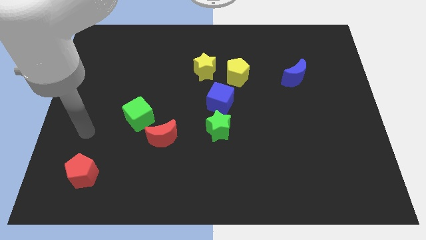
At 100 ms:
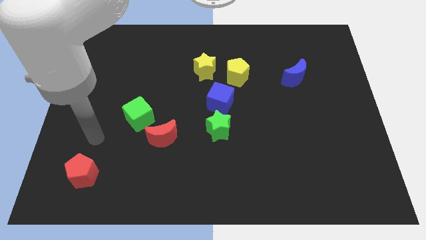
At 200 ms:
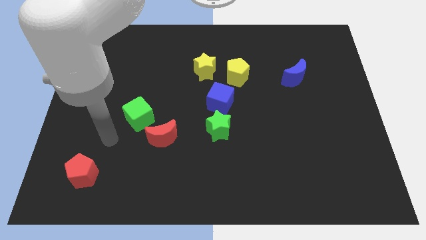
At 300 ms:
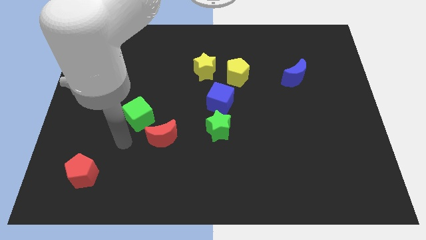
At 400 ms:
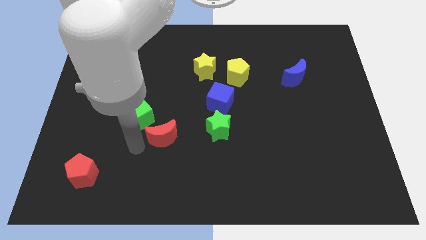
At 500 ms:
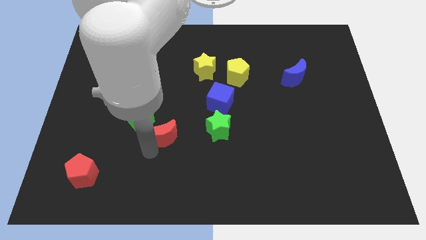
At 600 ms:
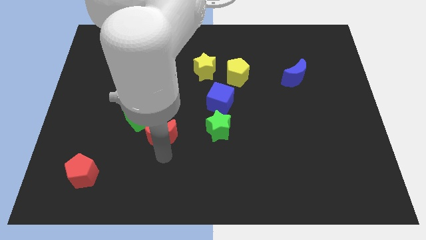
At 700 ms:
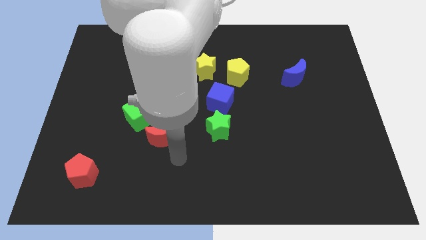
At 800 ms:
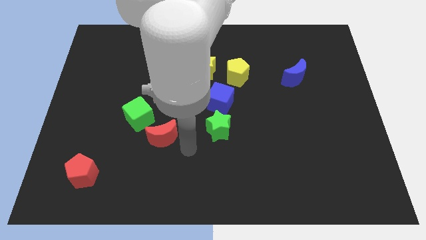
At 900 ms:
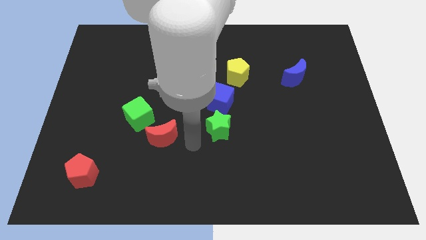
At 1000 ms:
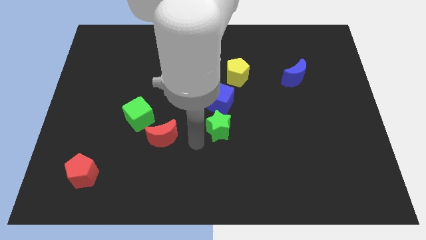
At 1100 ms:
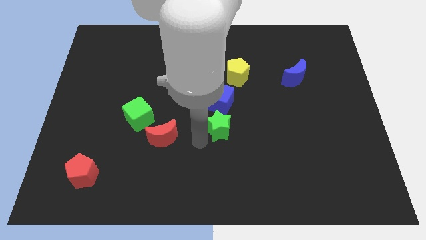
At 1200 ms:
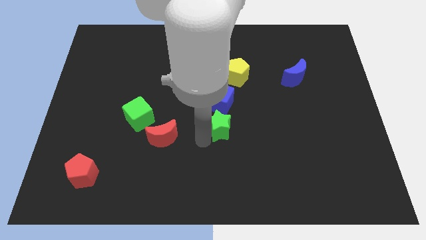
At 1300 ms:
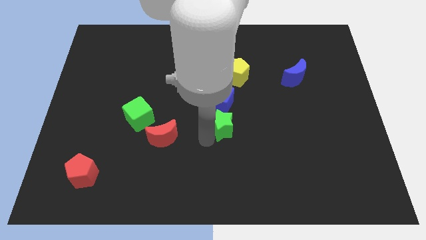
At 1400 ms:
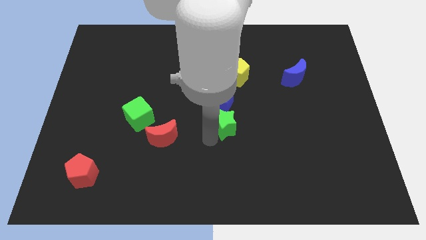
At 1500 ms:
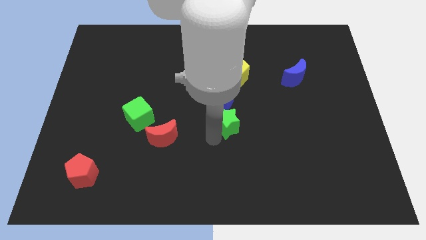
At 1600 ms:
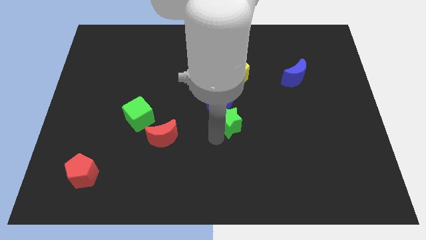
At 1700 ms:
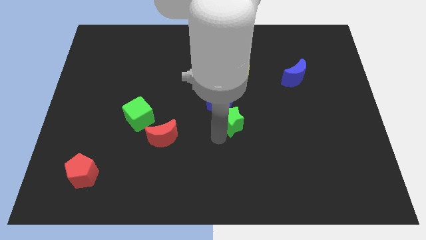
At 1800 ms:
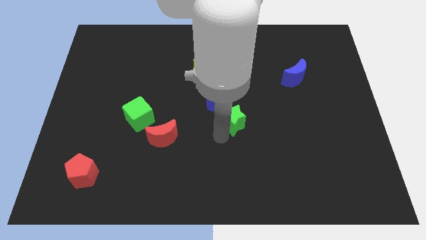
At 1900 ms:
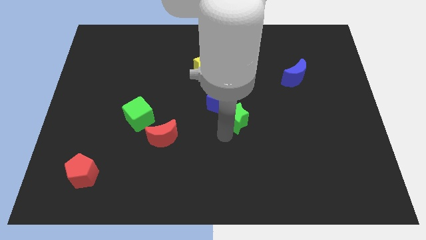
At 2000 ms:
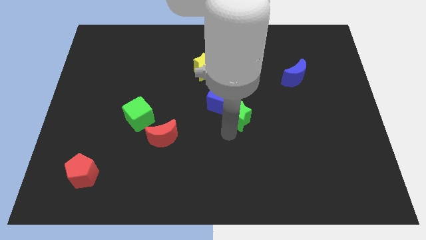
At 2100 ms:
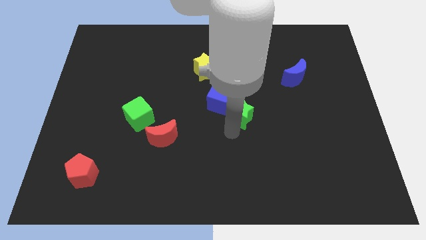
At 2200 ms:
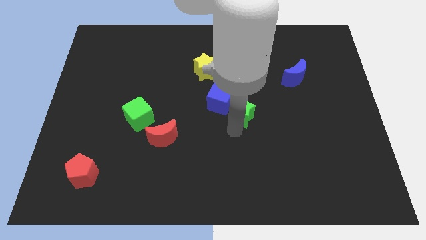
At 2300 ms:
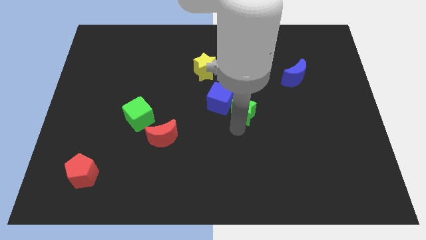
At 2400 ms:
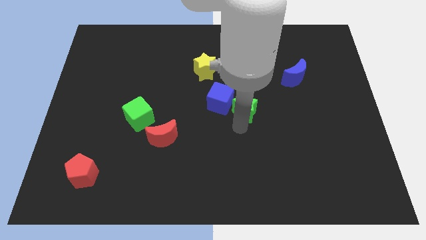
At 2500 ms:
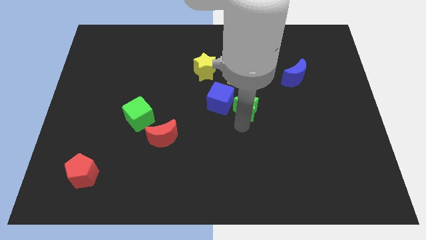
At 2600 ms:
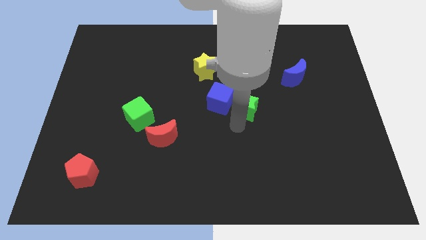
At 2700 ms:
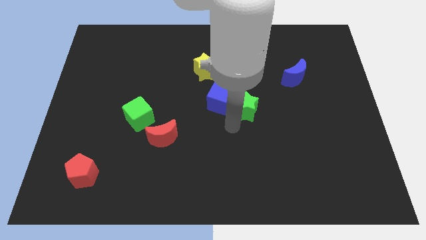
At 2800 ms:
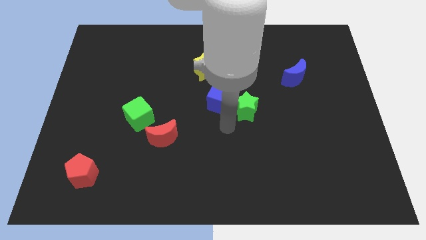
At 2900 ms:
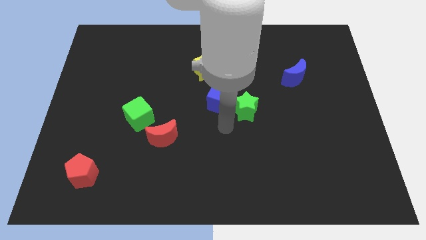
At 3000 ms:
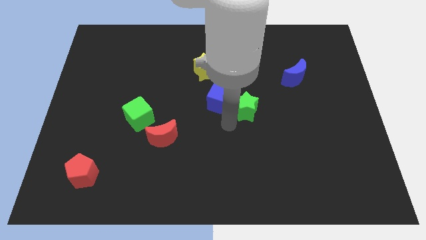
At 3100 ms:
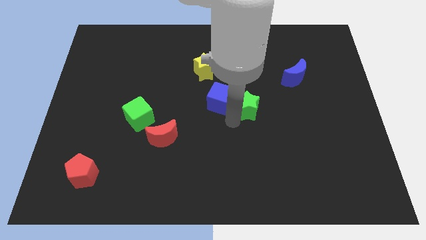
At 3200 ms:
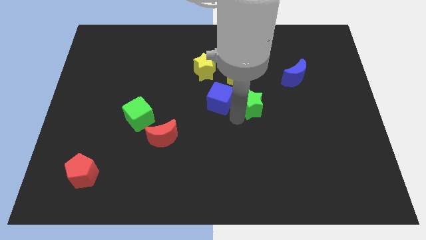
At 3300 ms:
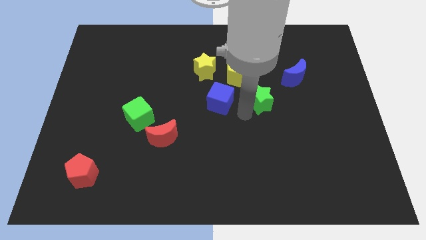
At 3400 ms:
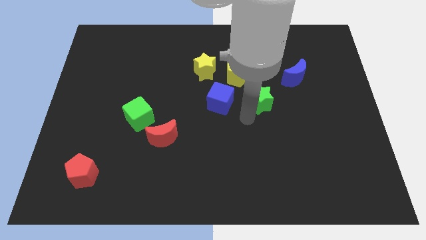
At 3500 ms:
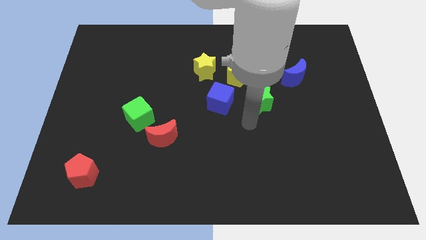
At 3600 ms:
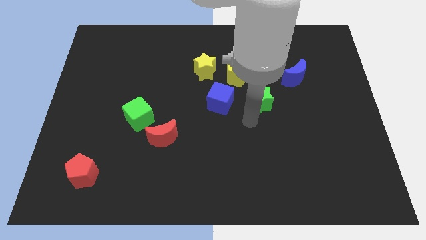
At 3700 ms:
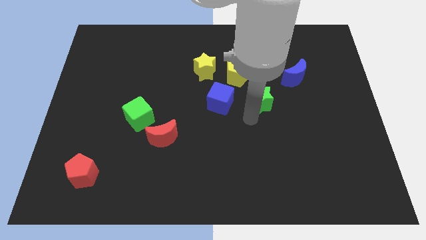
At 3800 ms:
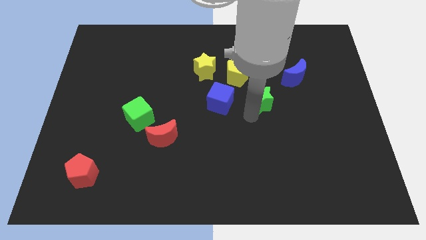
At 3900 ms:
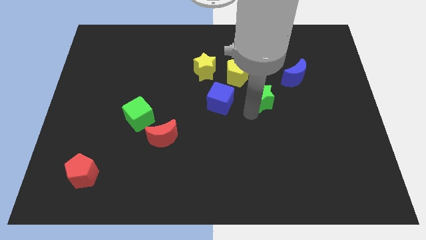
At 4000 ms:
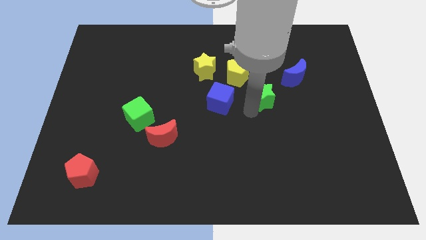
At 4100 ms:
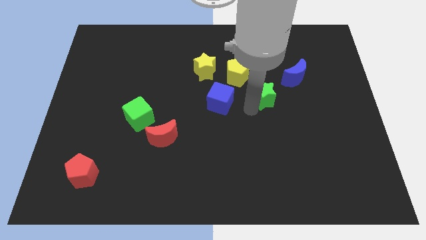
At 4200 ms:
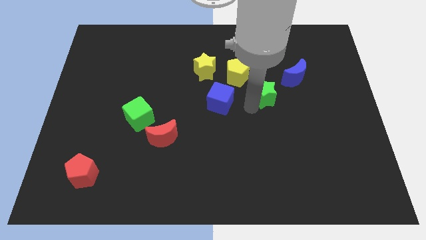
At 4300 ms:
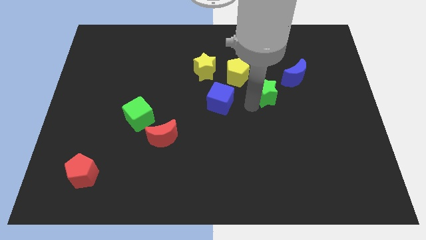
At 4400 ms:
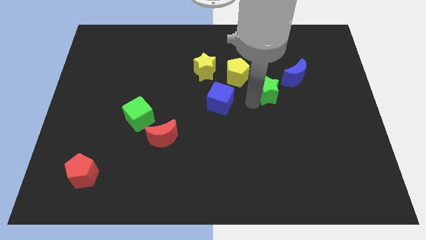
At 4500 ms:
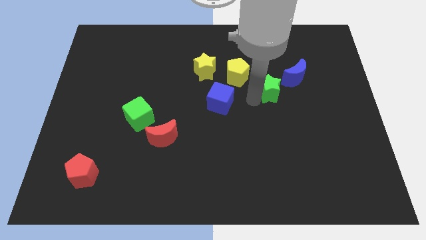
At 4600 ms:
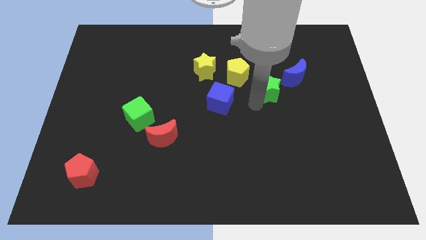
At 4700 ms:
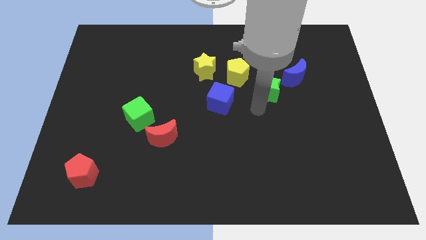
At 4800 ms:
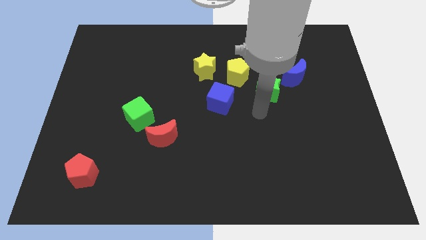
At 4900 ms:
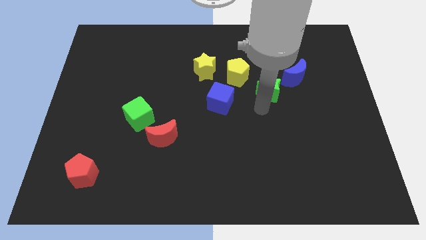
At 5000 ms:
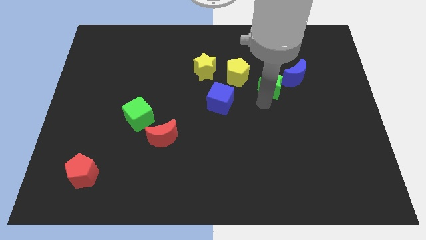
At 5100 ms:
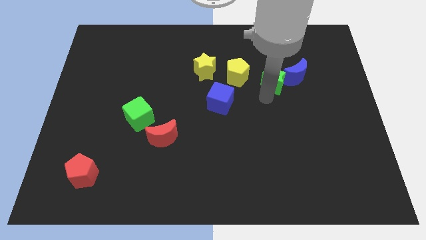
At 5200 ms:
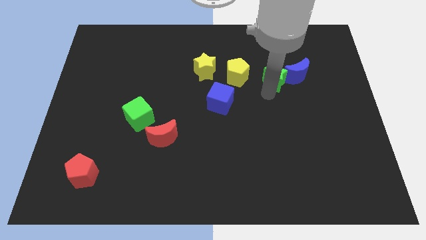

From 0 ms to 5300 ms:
move the green star diagonally upwards and right

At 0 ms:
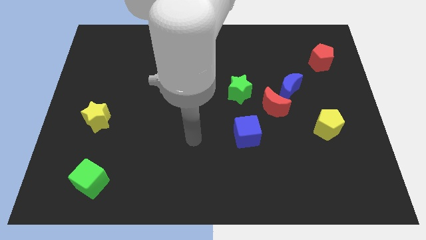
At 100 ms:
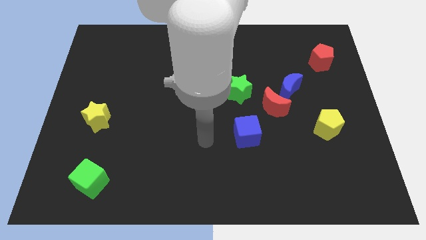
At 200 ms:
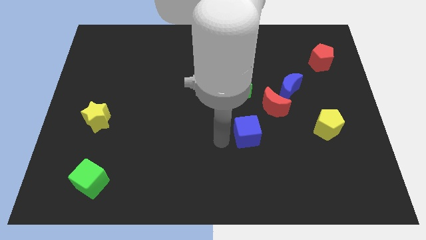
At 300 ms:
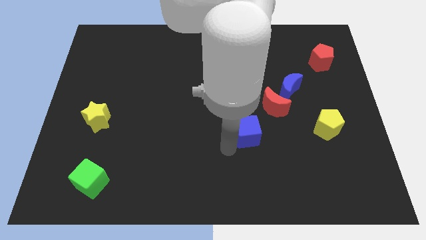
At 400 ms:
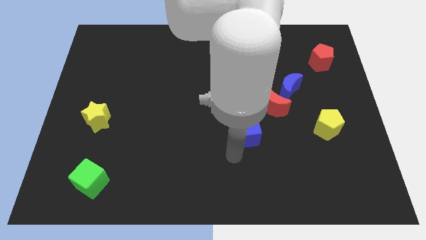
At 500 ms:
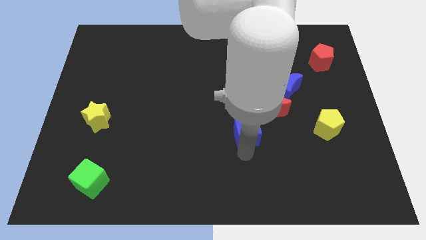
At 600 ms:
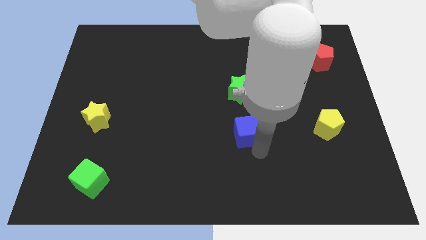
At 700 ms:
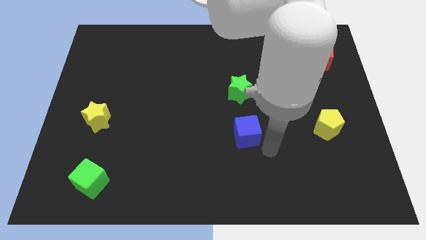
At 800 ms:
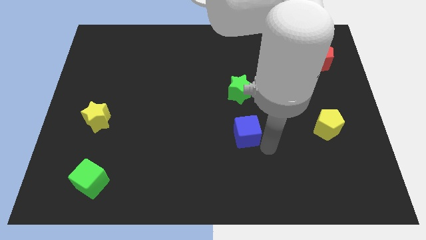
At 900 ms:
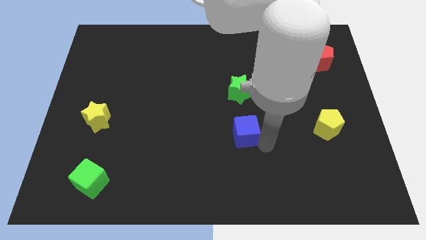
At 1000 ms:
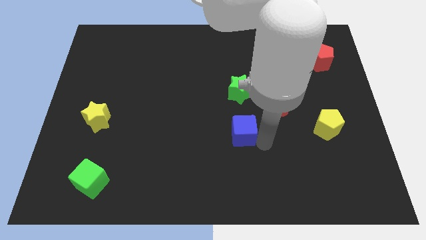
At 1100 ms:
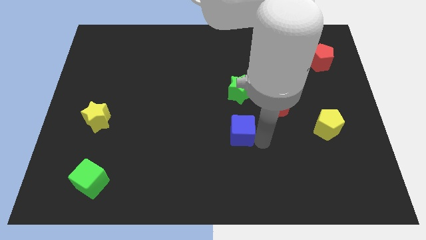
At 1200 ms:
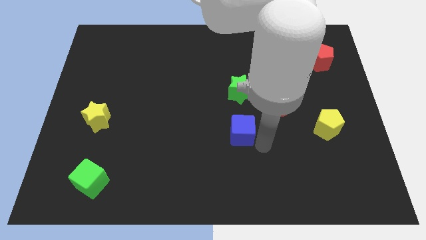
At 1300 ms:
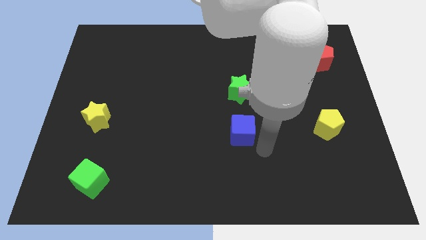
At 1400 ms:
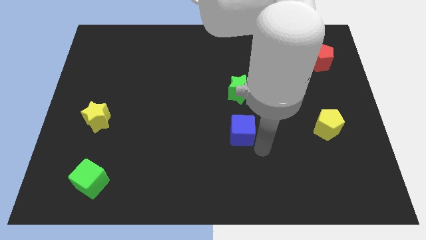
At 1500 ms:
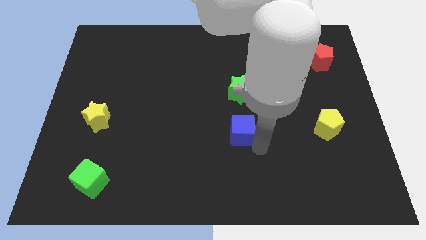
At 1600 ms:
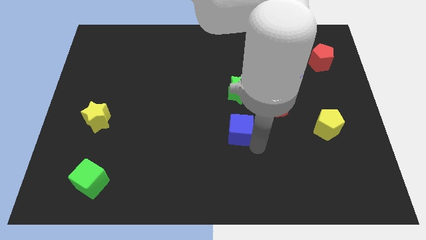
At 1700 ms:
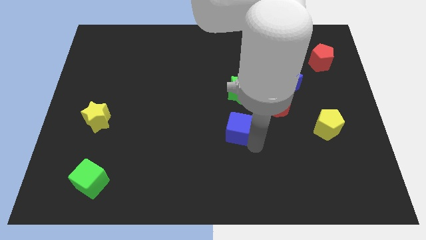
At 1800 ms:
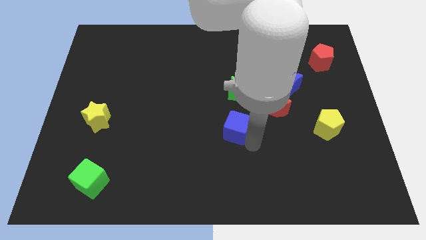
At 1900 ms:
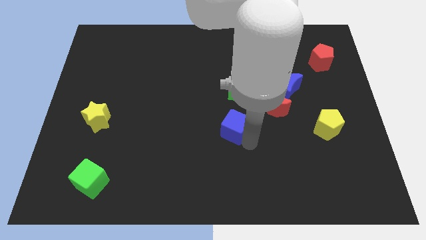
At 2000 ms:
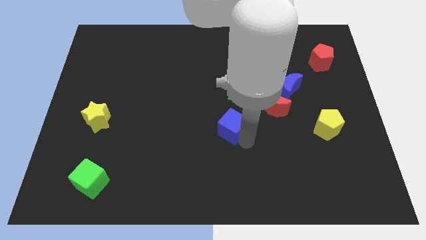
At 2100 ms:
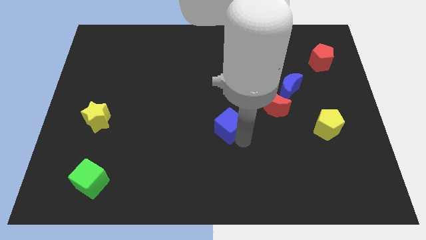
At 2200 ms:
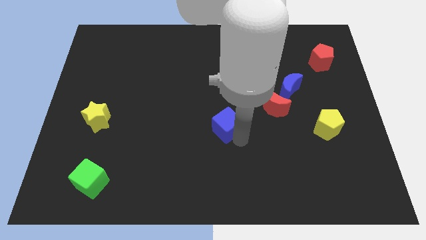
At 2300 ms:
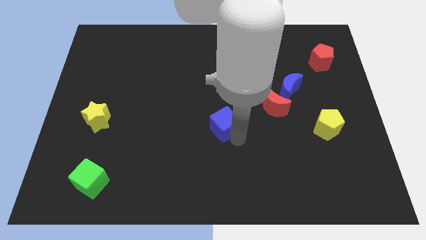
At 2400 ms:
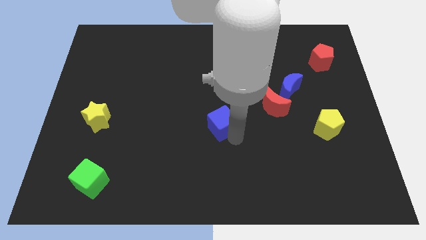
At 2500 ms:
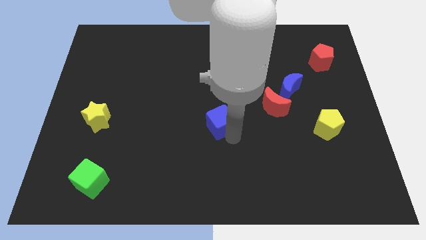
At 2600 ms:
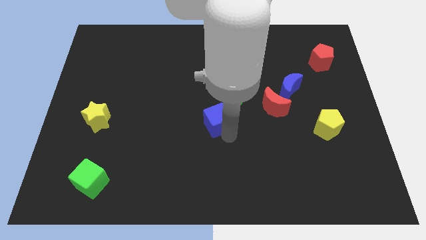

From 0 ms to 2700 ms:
slightly slide the blue cube upwards and to the left diagonally

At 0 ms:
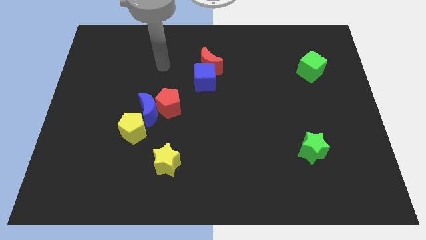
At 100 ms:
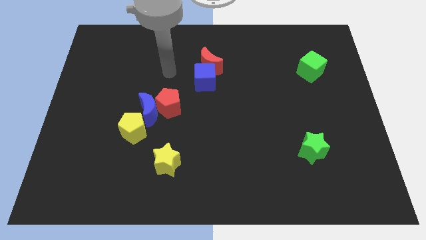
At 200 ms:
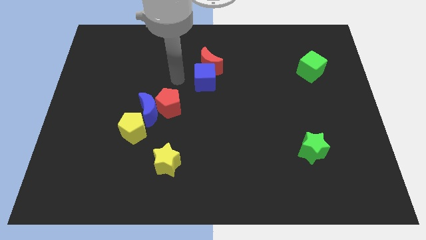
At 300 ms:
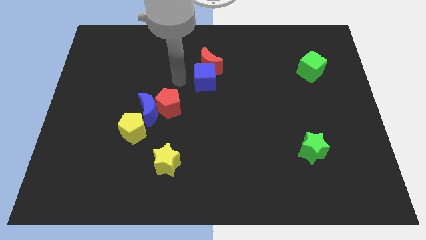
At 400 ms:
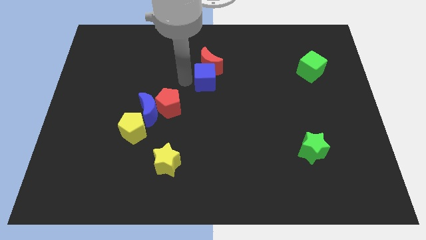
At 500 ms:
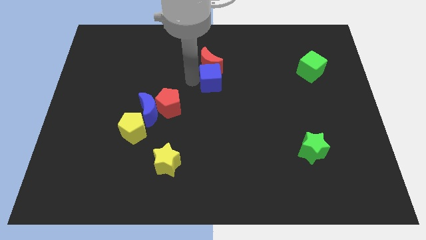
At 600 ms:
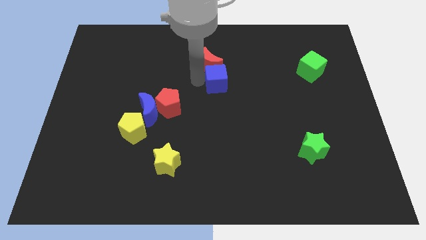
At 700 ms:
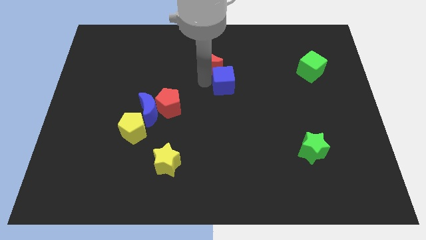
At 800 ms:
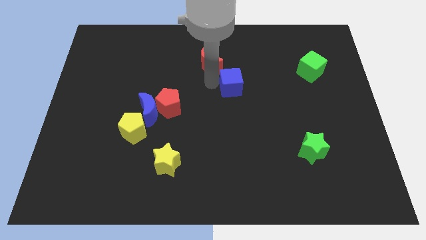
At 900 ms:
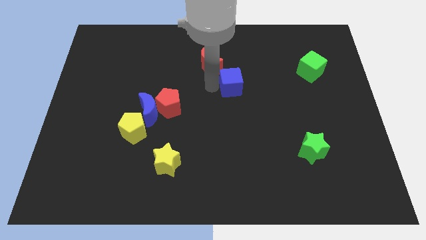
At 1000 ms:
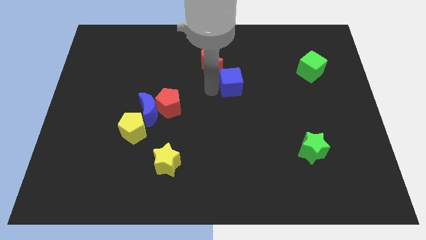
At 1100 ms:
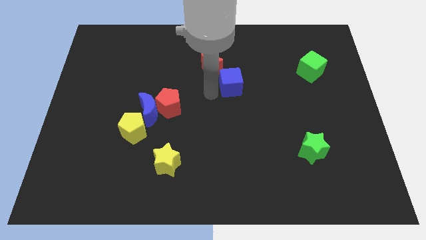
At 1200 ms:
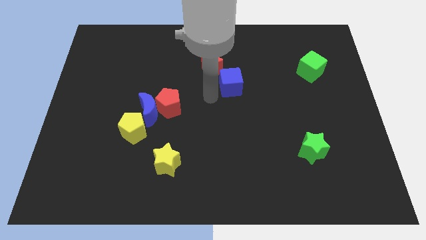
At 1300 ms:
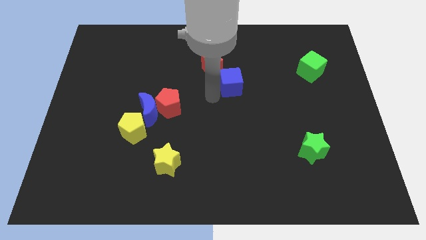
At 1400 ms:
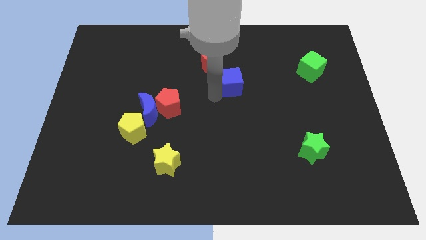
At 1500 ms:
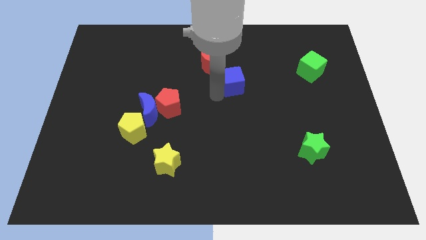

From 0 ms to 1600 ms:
slightly push the blue cube to the right
